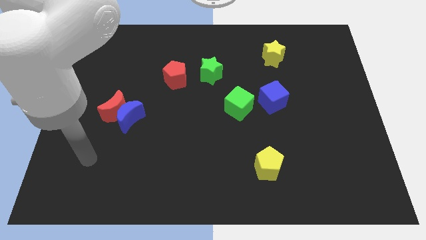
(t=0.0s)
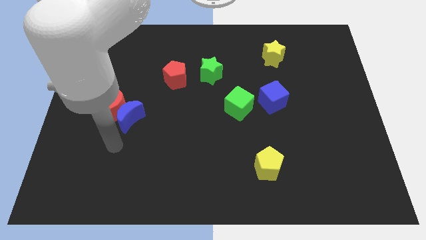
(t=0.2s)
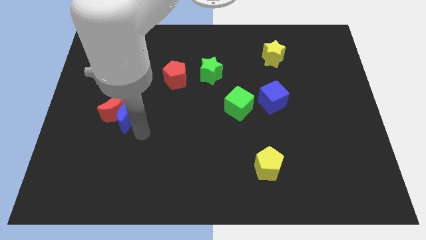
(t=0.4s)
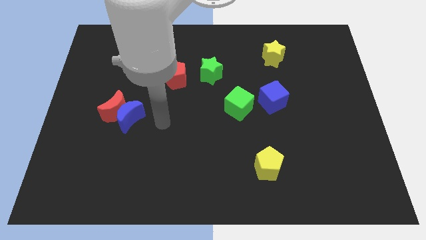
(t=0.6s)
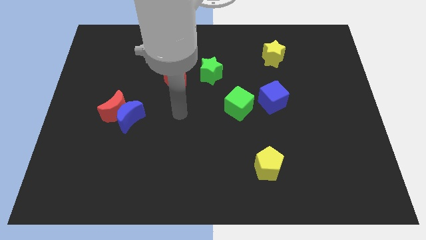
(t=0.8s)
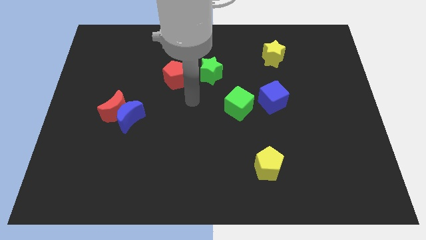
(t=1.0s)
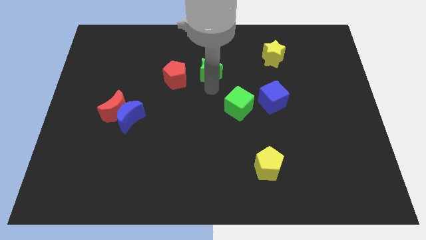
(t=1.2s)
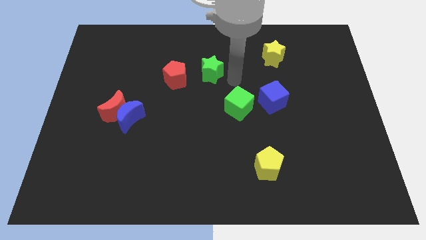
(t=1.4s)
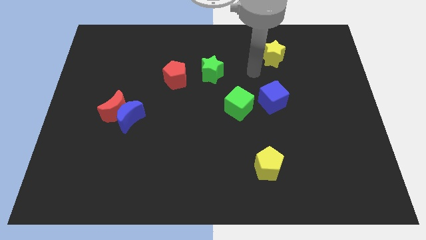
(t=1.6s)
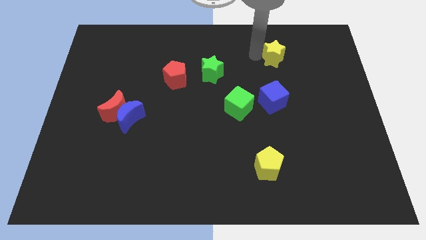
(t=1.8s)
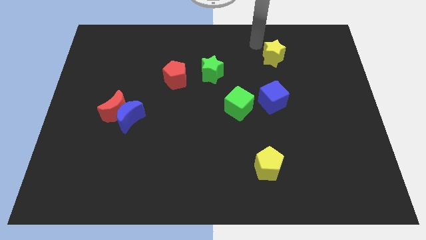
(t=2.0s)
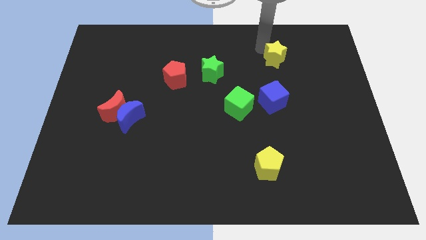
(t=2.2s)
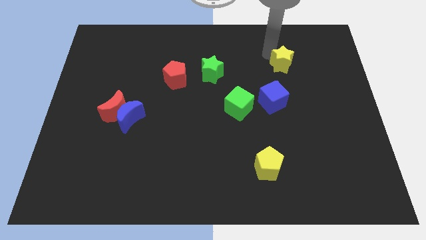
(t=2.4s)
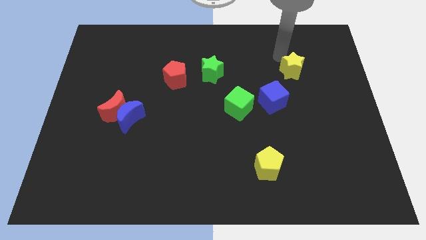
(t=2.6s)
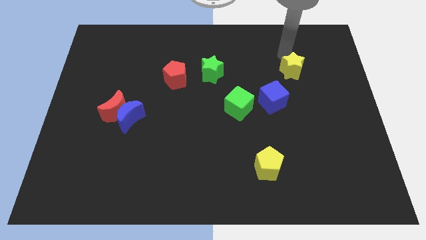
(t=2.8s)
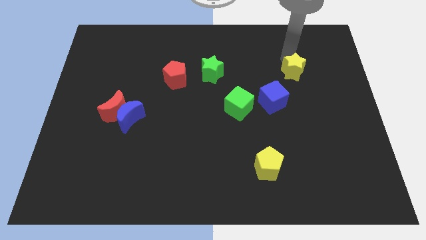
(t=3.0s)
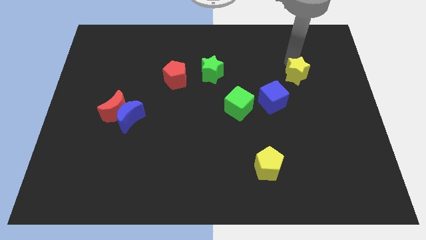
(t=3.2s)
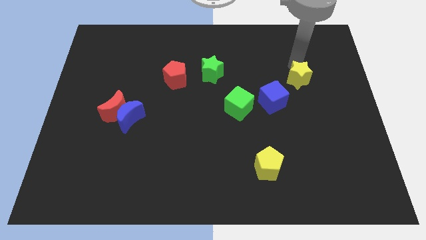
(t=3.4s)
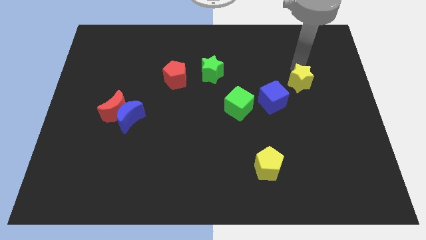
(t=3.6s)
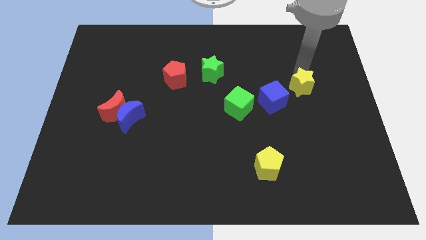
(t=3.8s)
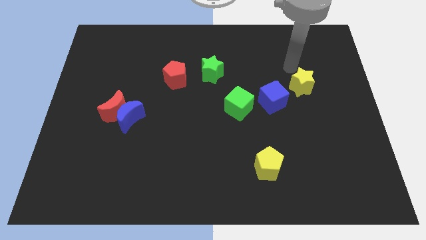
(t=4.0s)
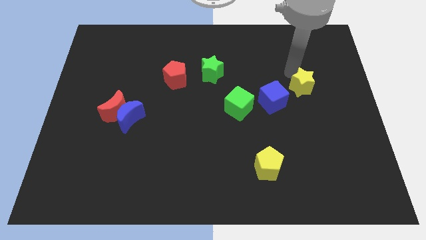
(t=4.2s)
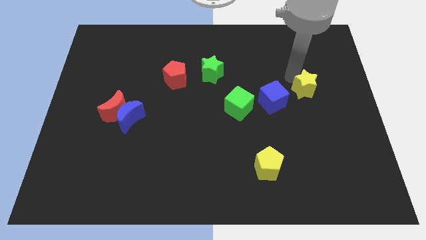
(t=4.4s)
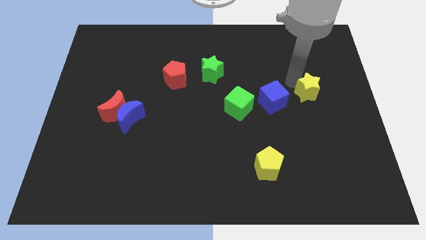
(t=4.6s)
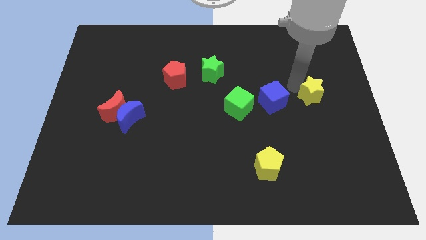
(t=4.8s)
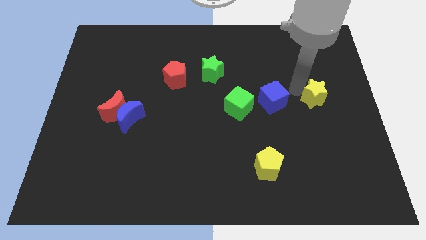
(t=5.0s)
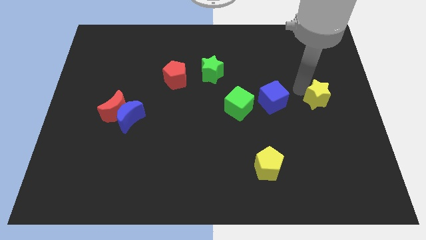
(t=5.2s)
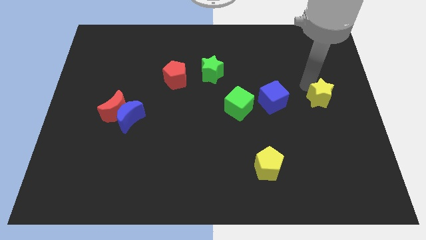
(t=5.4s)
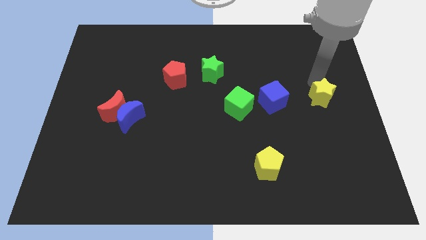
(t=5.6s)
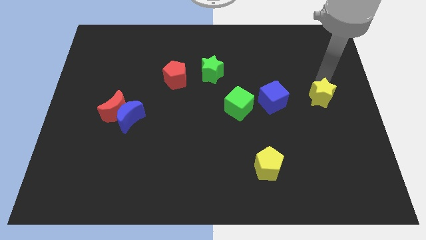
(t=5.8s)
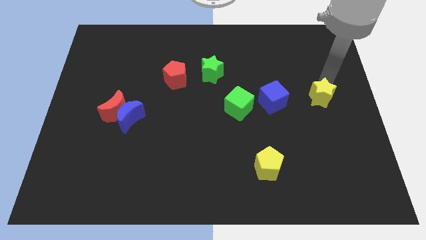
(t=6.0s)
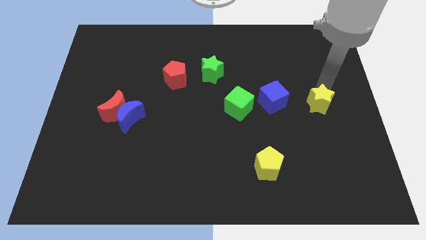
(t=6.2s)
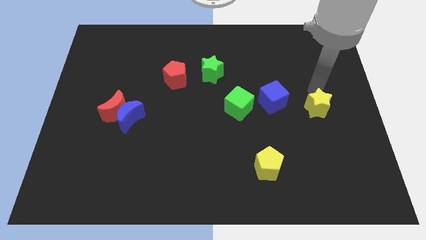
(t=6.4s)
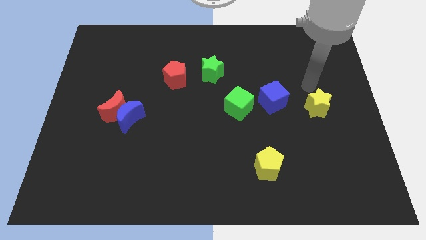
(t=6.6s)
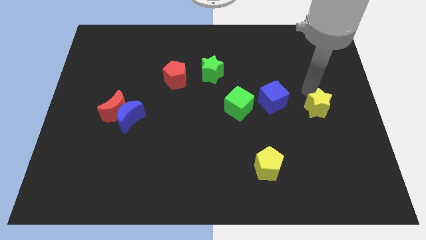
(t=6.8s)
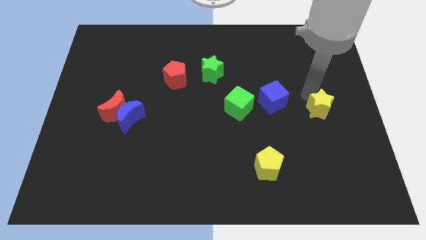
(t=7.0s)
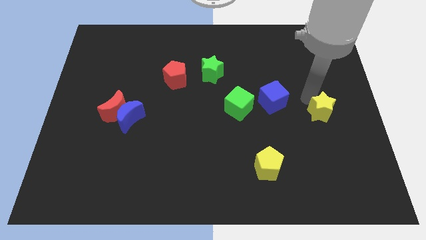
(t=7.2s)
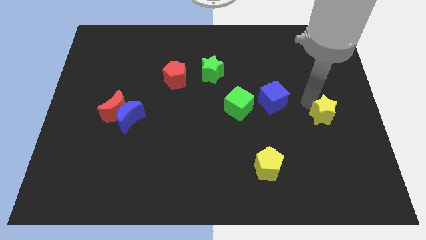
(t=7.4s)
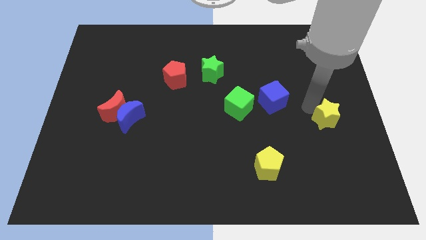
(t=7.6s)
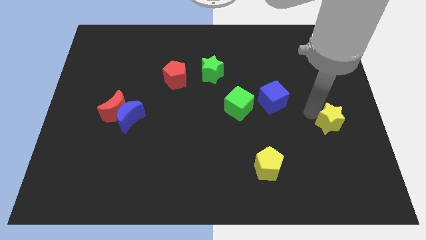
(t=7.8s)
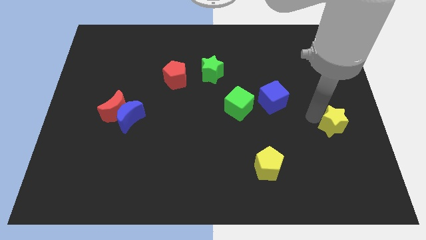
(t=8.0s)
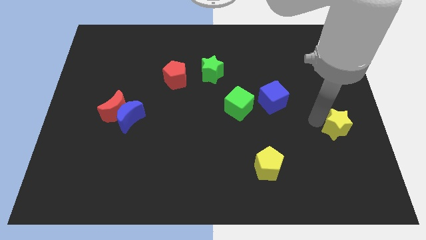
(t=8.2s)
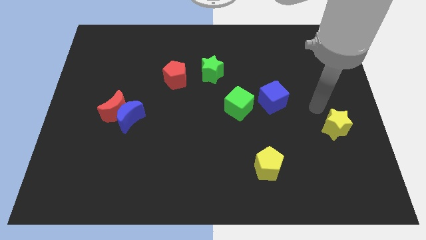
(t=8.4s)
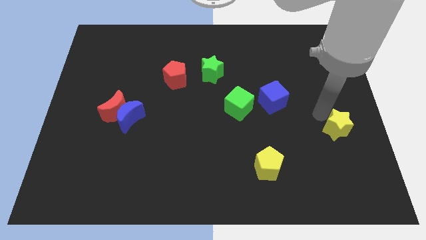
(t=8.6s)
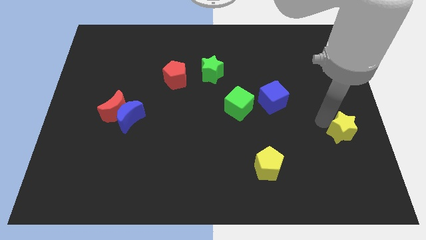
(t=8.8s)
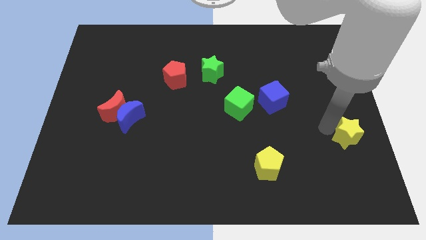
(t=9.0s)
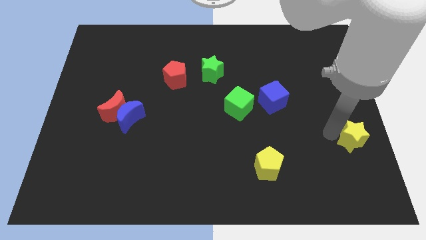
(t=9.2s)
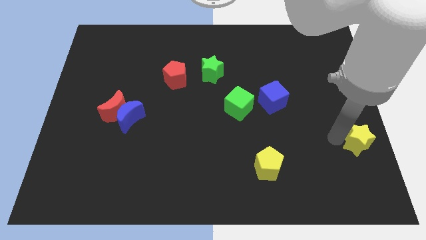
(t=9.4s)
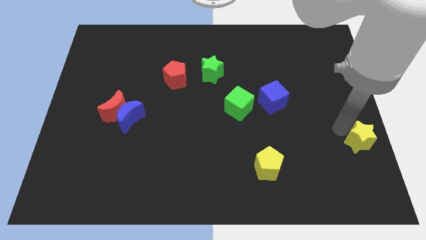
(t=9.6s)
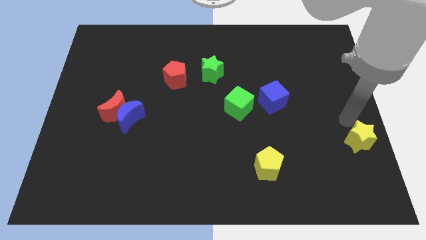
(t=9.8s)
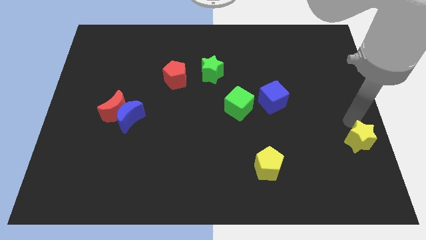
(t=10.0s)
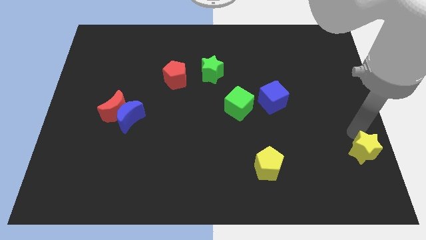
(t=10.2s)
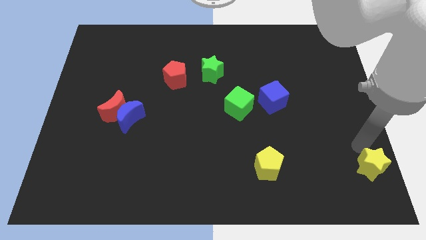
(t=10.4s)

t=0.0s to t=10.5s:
push the yellow star to the bottom right

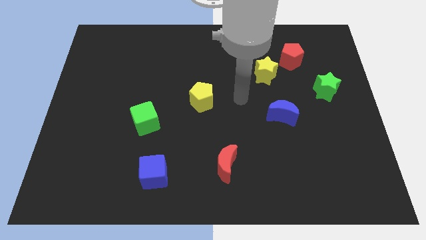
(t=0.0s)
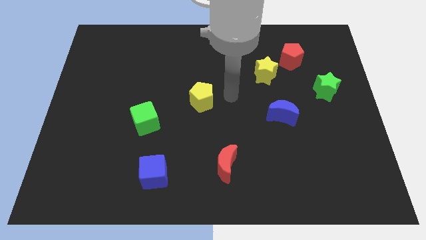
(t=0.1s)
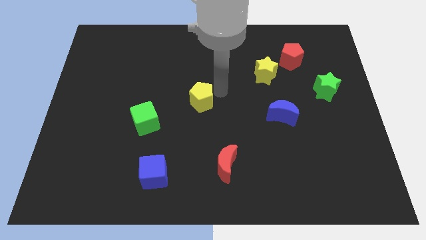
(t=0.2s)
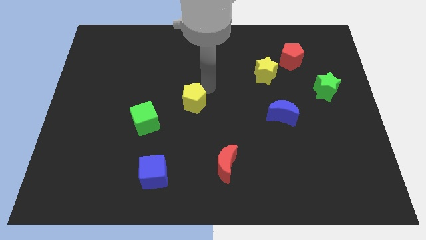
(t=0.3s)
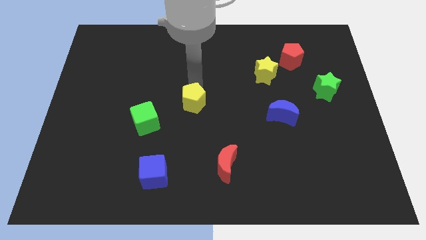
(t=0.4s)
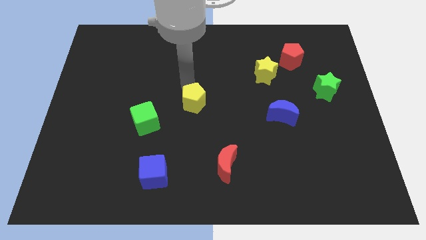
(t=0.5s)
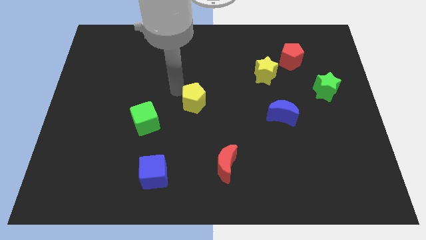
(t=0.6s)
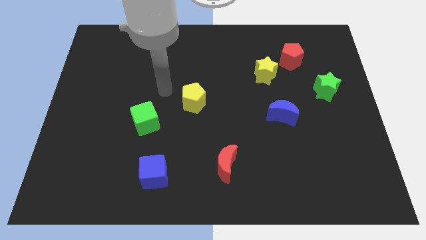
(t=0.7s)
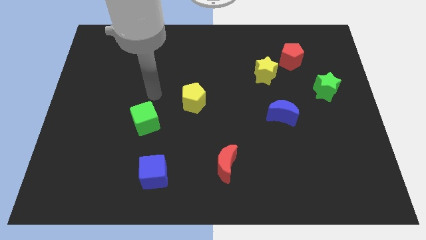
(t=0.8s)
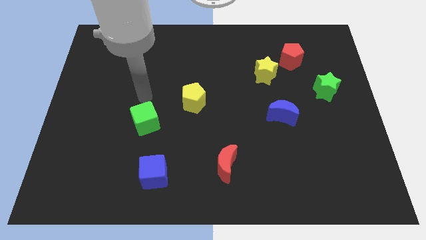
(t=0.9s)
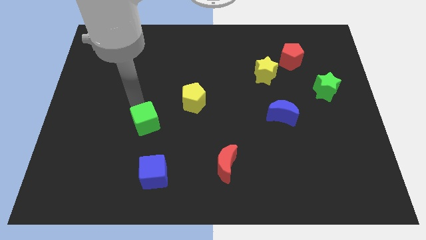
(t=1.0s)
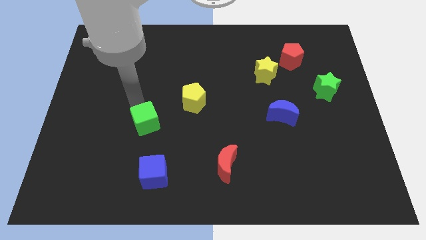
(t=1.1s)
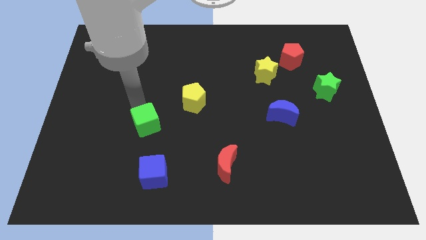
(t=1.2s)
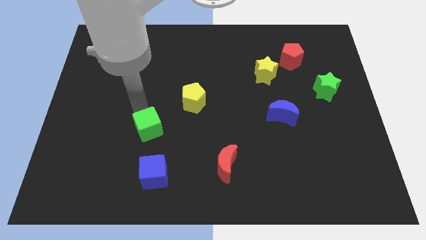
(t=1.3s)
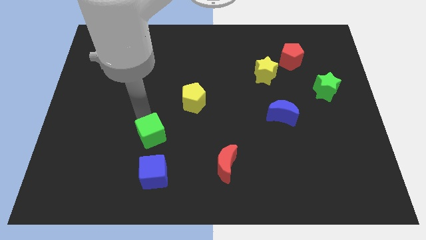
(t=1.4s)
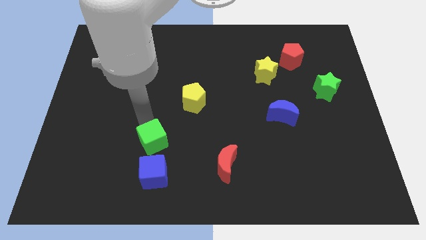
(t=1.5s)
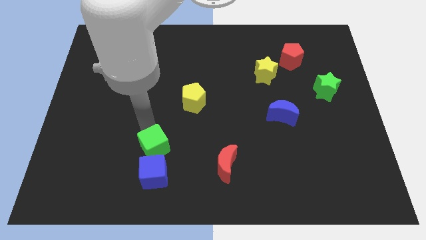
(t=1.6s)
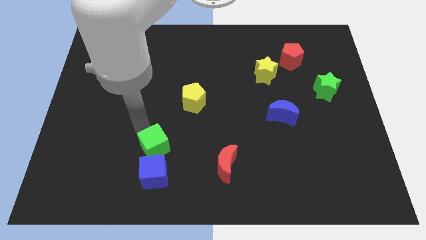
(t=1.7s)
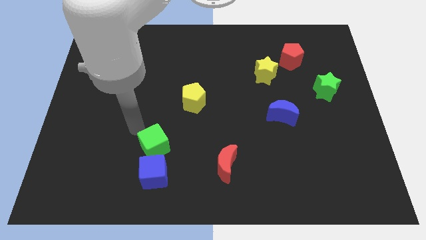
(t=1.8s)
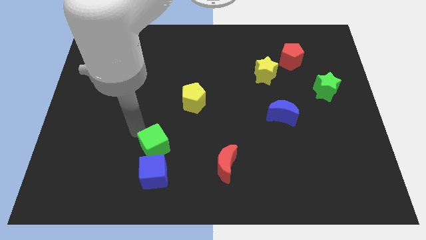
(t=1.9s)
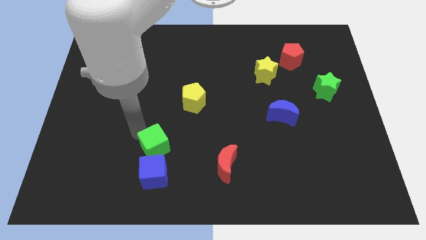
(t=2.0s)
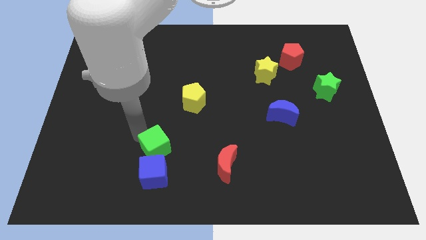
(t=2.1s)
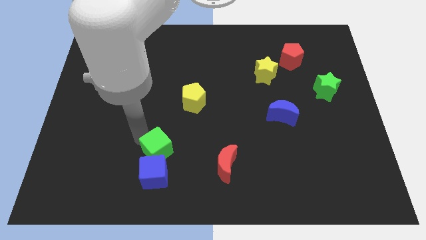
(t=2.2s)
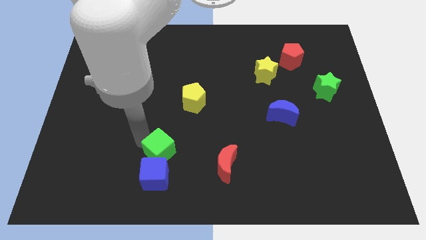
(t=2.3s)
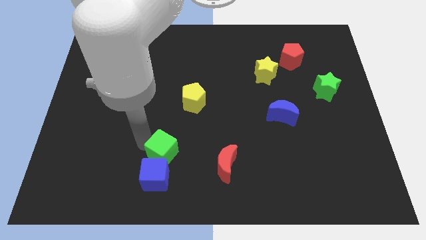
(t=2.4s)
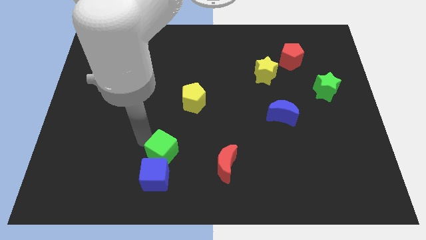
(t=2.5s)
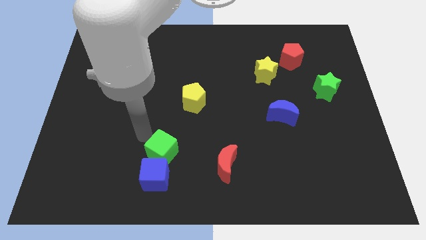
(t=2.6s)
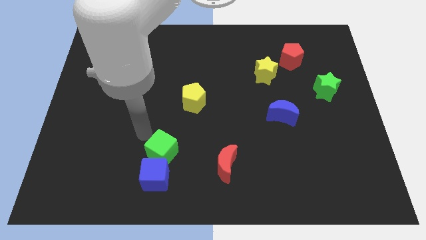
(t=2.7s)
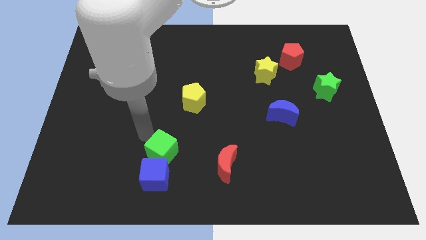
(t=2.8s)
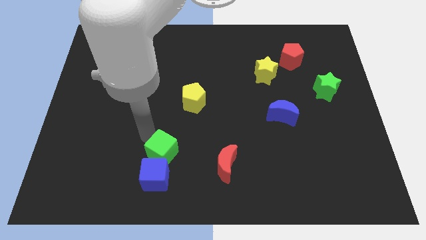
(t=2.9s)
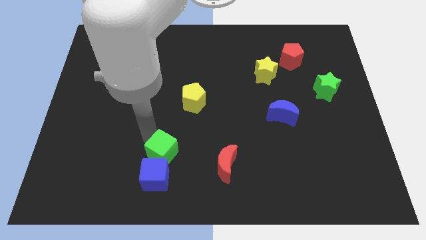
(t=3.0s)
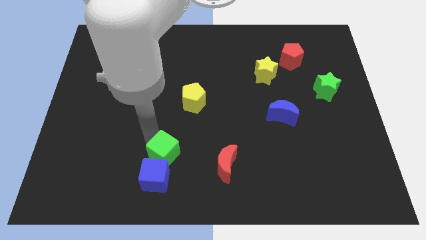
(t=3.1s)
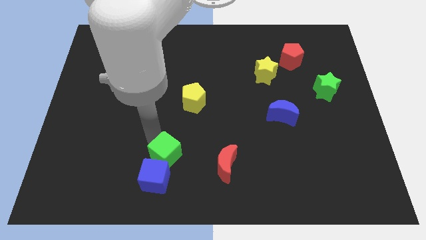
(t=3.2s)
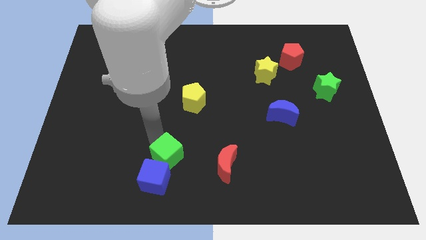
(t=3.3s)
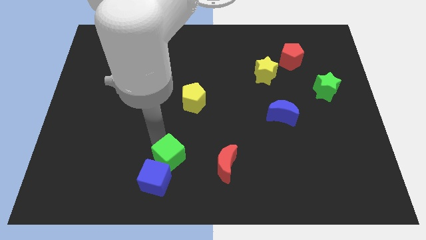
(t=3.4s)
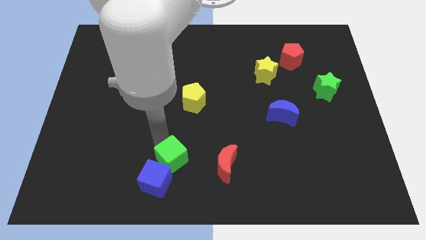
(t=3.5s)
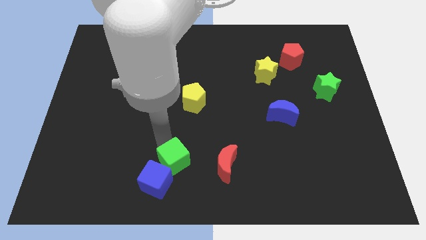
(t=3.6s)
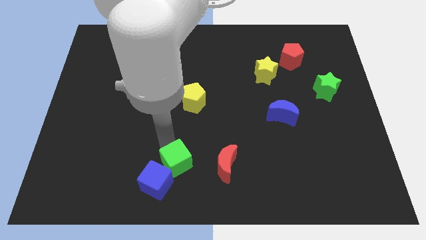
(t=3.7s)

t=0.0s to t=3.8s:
put the green cube to the bottom
